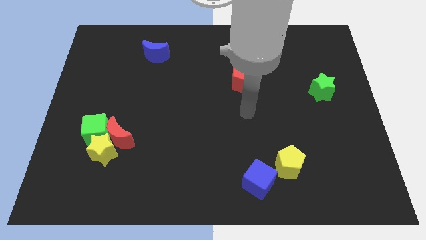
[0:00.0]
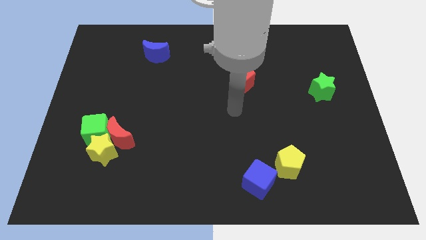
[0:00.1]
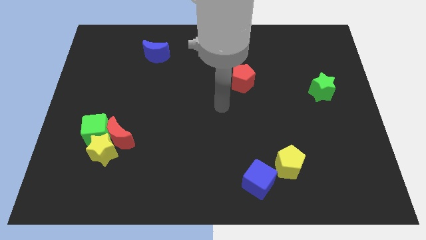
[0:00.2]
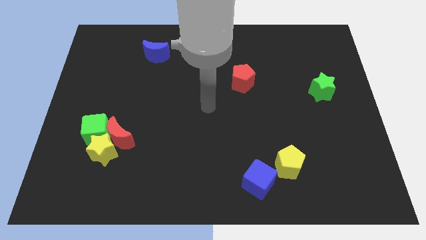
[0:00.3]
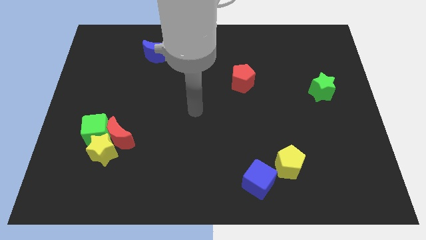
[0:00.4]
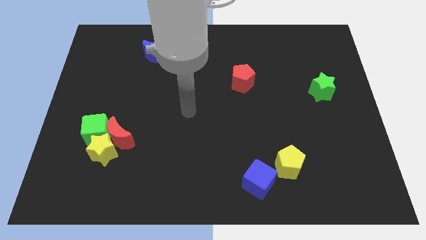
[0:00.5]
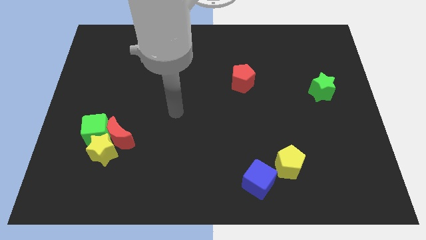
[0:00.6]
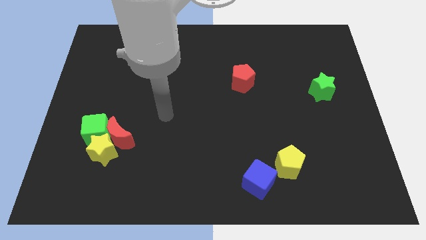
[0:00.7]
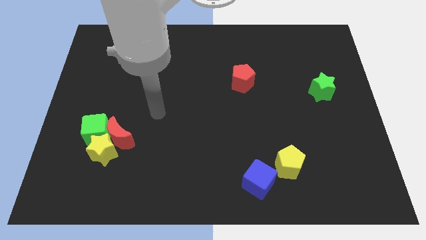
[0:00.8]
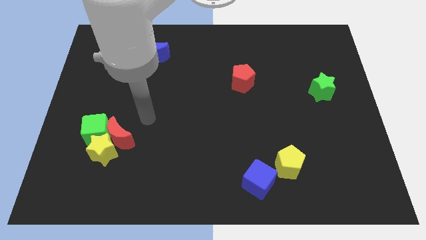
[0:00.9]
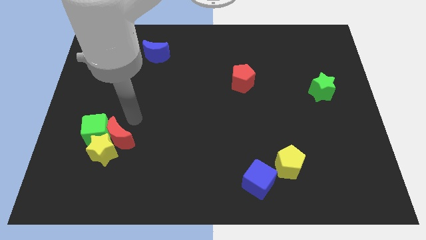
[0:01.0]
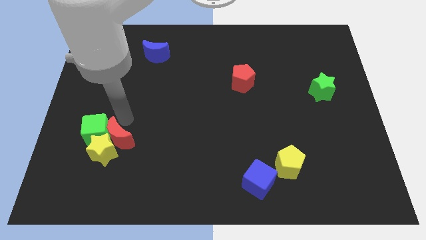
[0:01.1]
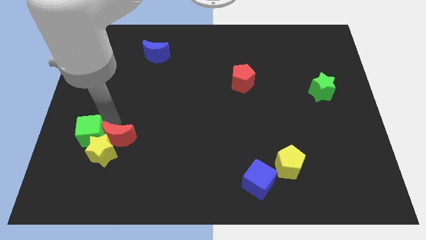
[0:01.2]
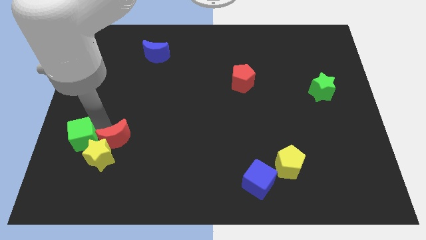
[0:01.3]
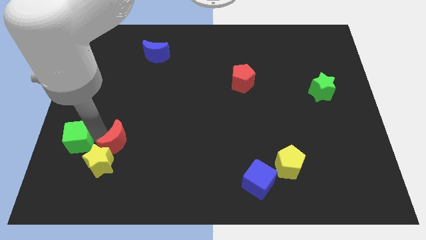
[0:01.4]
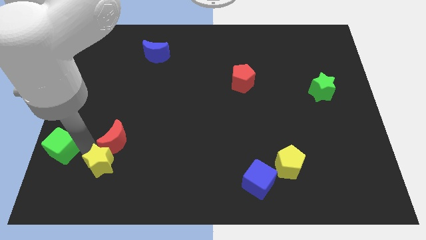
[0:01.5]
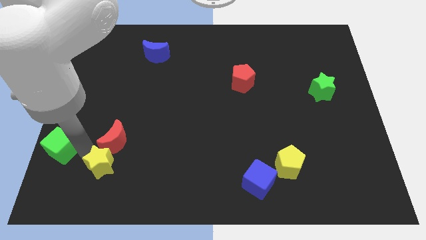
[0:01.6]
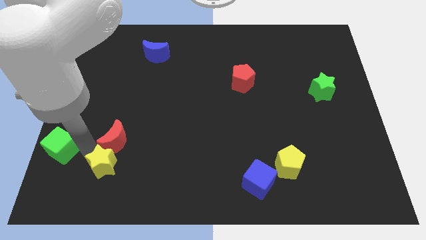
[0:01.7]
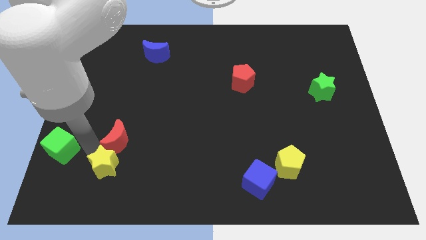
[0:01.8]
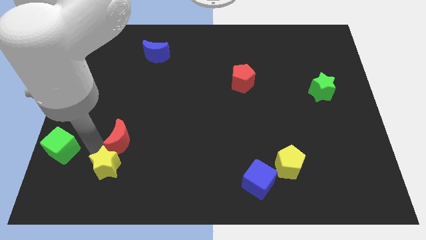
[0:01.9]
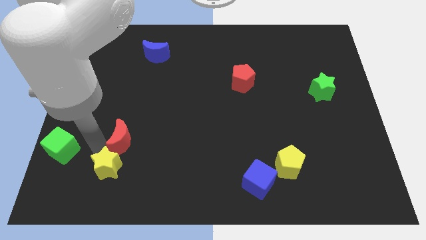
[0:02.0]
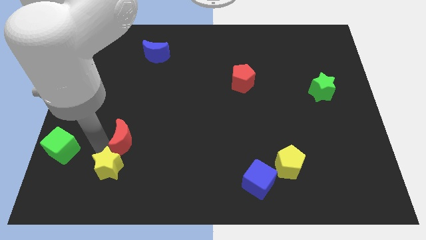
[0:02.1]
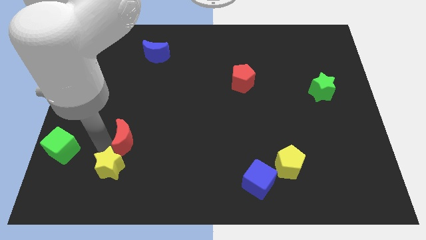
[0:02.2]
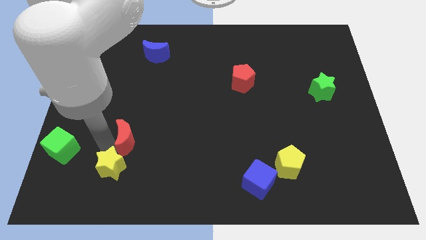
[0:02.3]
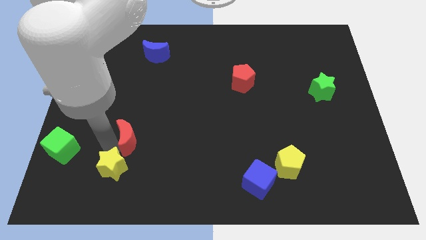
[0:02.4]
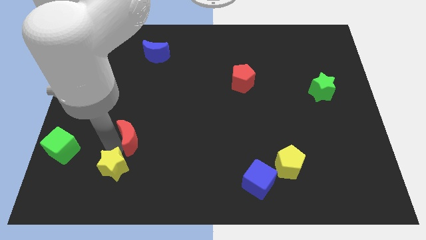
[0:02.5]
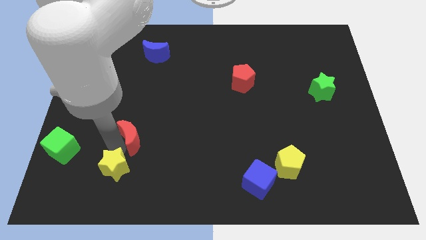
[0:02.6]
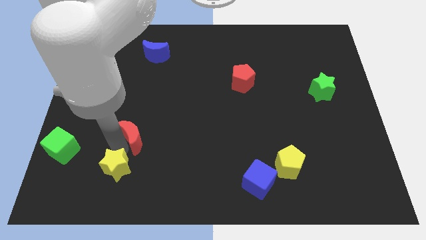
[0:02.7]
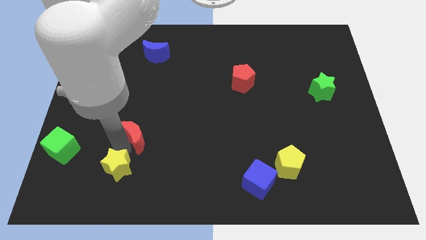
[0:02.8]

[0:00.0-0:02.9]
separate the red moon from the yellow star and green cube

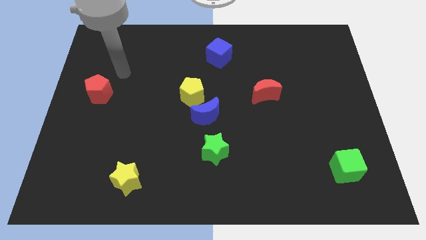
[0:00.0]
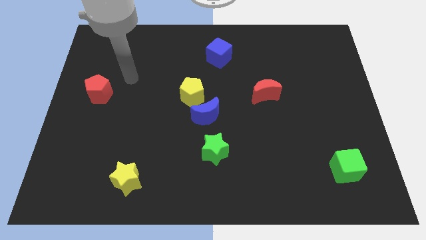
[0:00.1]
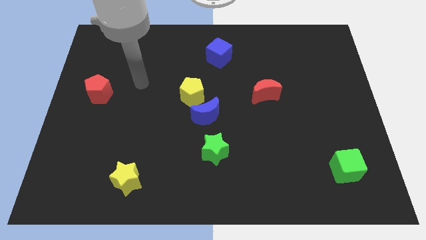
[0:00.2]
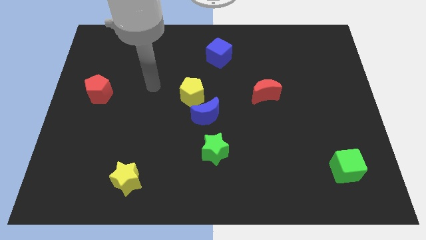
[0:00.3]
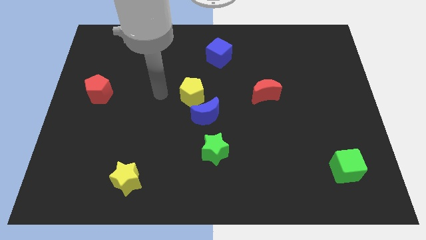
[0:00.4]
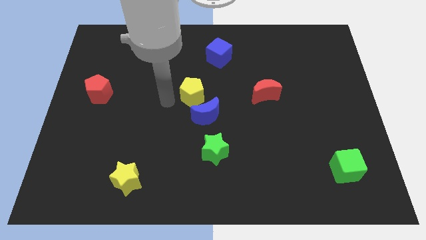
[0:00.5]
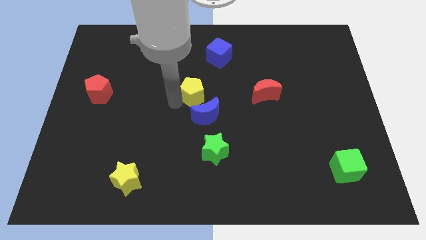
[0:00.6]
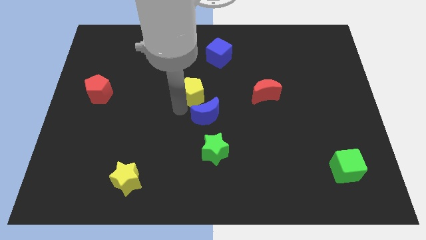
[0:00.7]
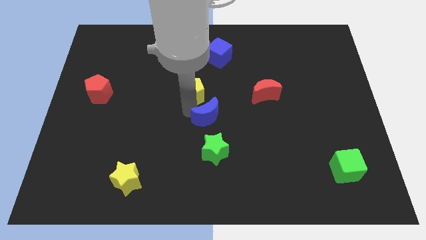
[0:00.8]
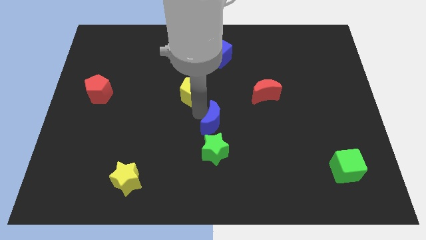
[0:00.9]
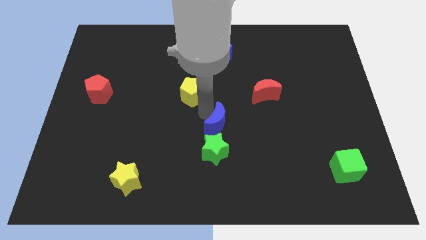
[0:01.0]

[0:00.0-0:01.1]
separate the yellow pentagon from the blue moon

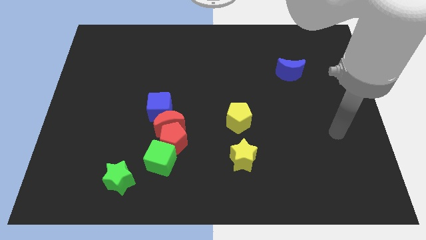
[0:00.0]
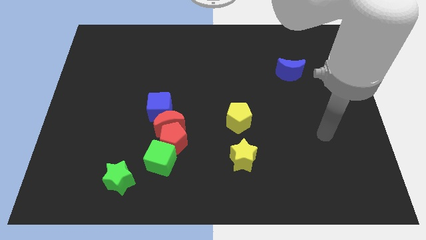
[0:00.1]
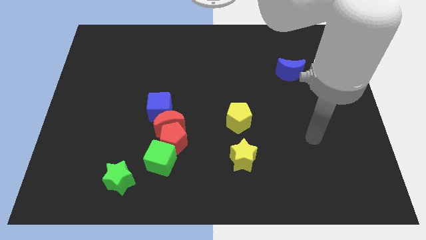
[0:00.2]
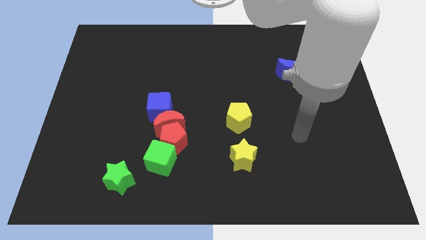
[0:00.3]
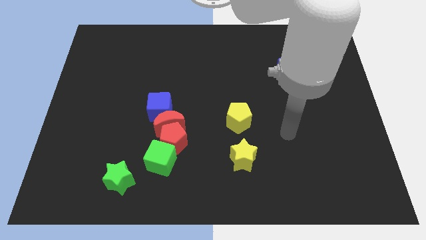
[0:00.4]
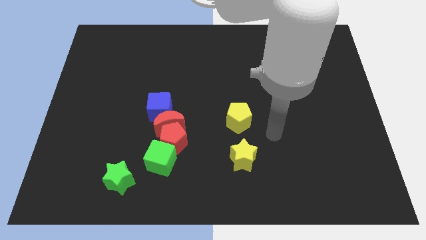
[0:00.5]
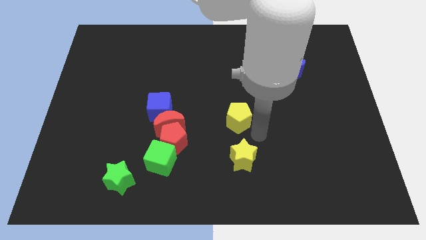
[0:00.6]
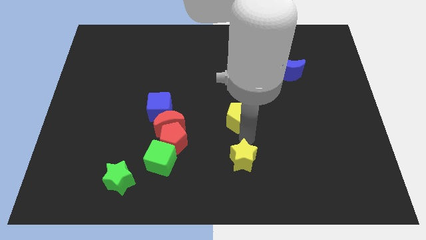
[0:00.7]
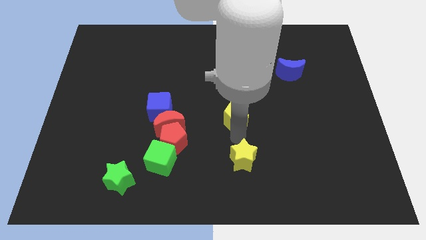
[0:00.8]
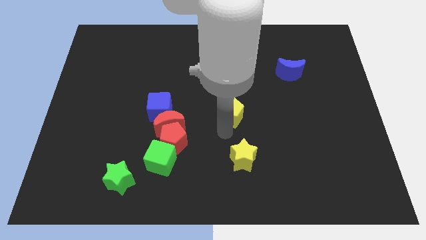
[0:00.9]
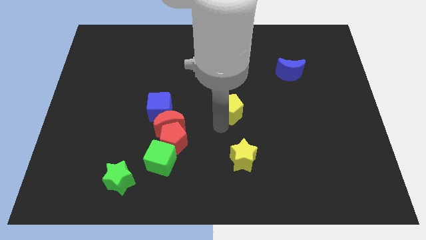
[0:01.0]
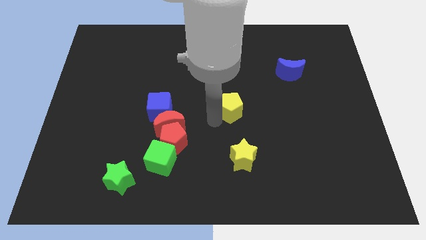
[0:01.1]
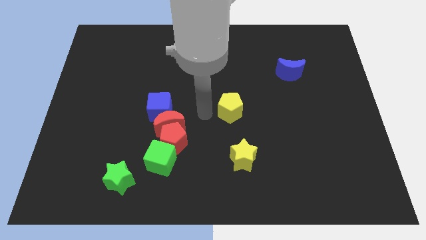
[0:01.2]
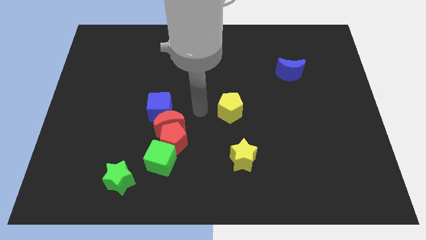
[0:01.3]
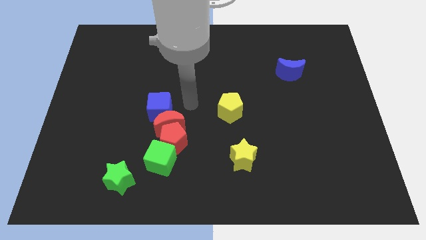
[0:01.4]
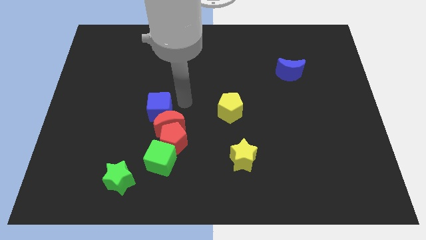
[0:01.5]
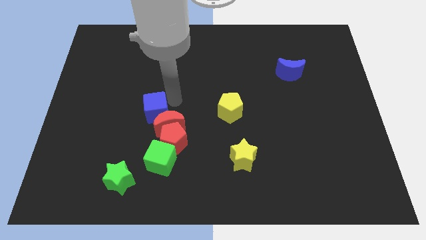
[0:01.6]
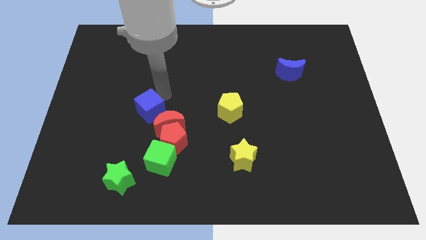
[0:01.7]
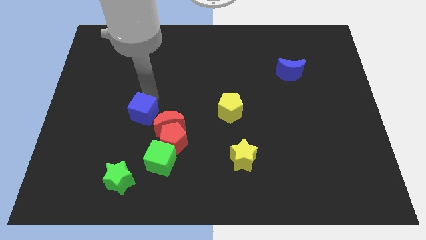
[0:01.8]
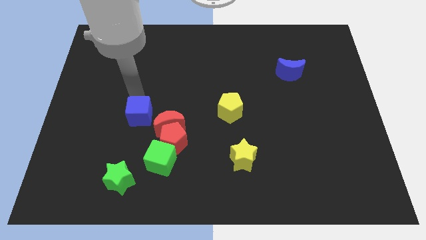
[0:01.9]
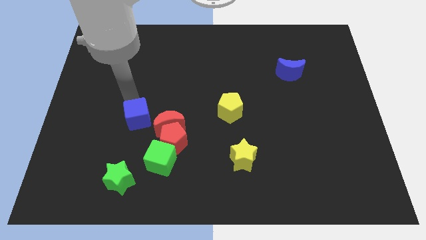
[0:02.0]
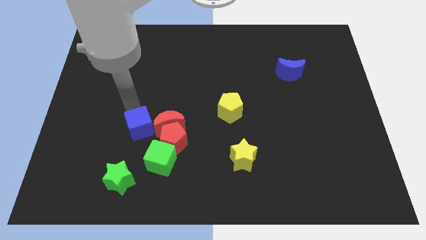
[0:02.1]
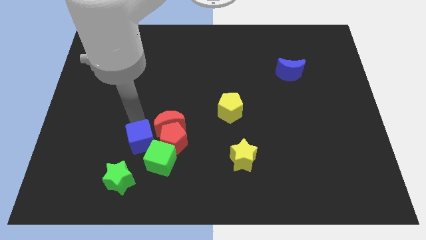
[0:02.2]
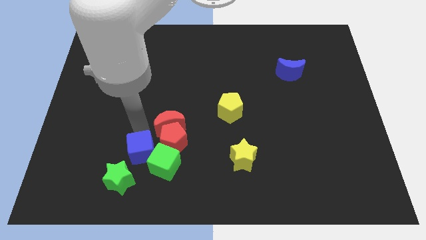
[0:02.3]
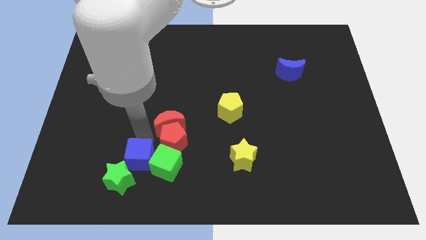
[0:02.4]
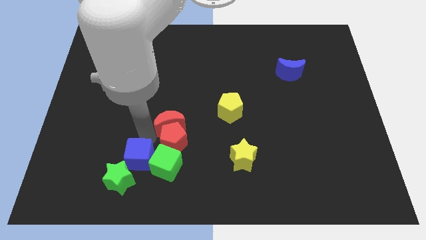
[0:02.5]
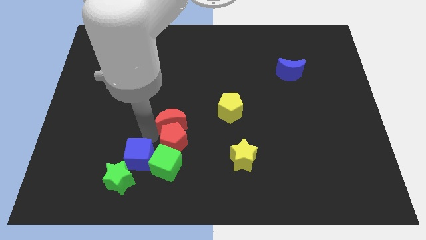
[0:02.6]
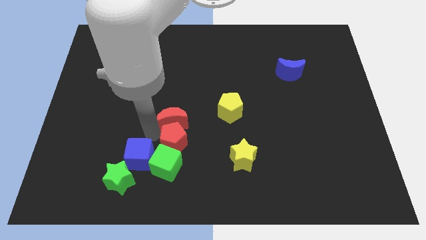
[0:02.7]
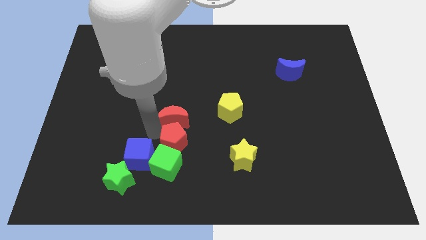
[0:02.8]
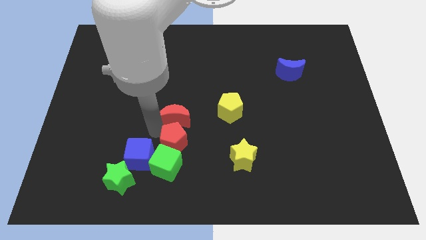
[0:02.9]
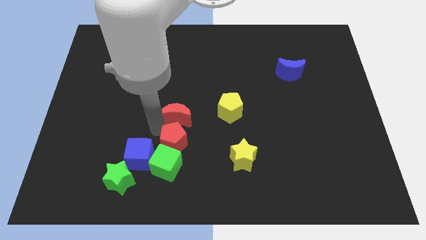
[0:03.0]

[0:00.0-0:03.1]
pull the red moon apart from the group

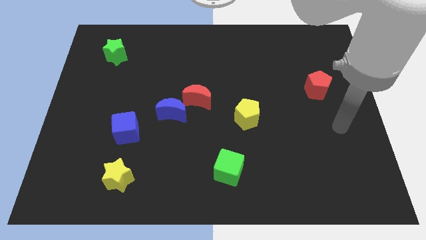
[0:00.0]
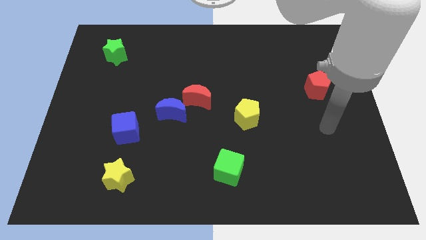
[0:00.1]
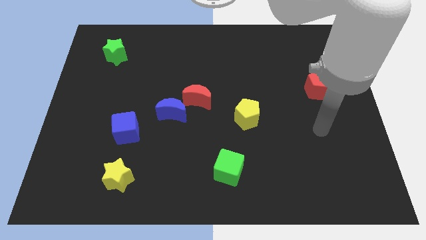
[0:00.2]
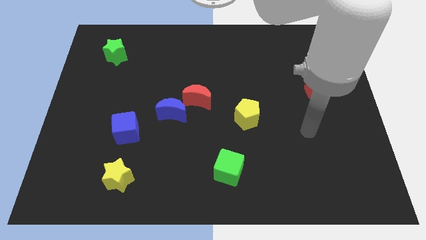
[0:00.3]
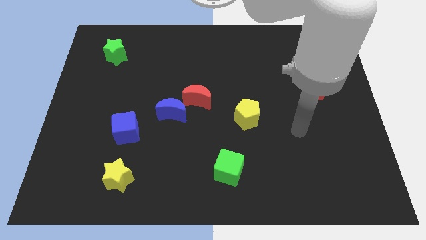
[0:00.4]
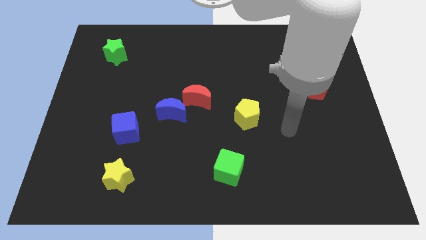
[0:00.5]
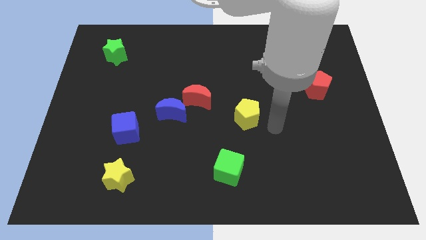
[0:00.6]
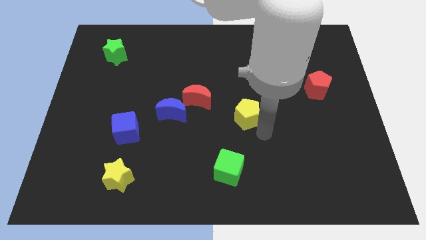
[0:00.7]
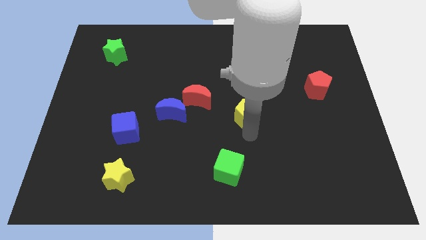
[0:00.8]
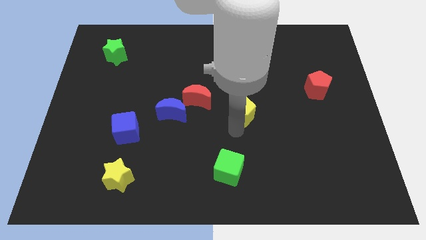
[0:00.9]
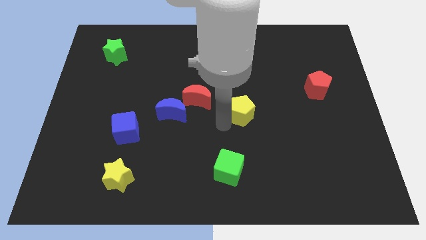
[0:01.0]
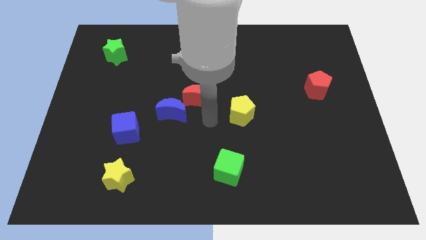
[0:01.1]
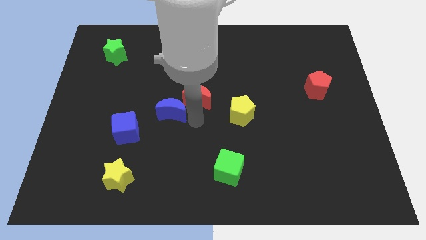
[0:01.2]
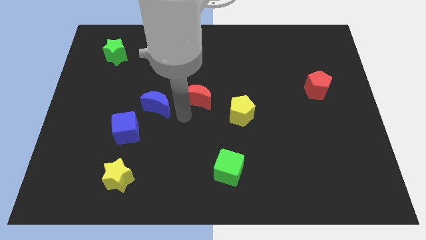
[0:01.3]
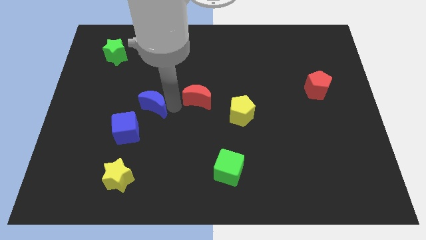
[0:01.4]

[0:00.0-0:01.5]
move the red moon away from the blue moon

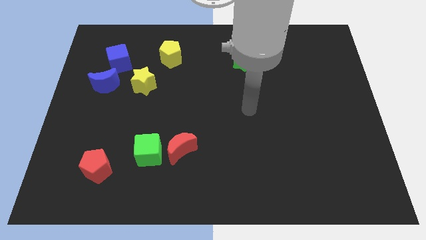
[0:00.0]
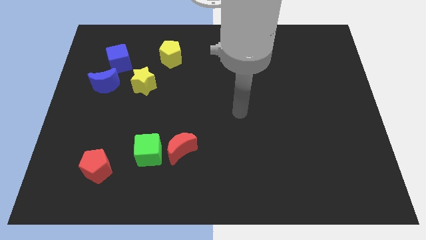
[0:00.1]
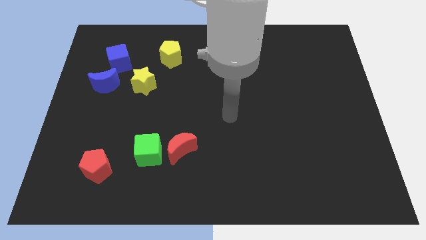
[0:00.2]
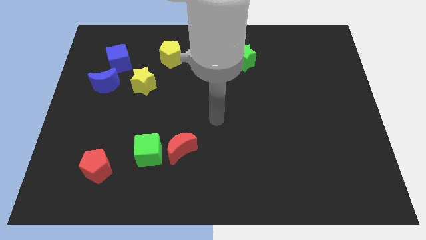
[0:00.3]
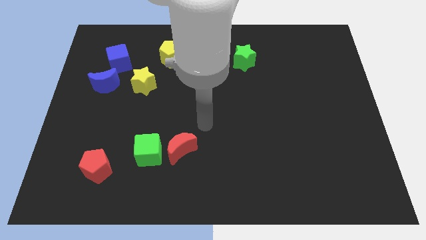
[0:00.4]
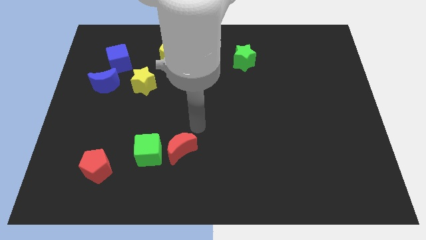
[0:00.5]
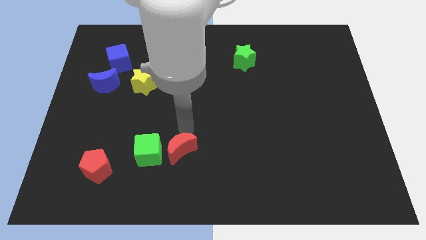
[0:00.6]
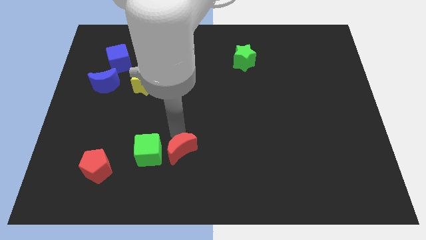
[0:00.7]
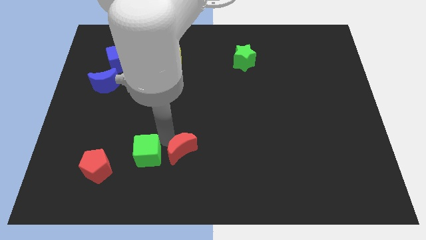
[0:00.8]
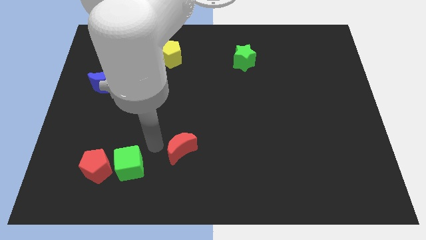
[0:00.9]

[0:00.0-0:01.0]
pull the red moon apart from the green cube
